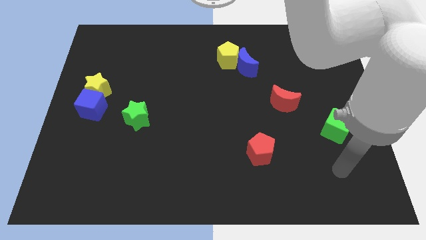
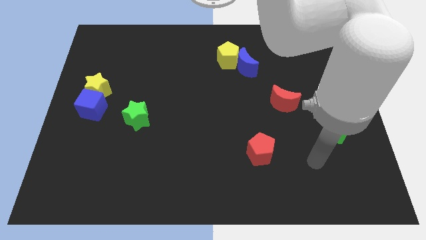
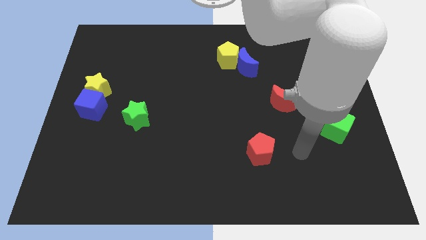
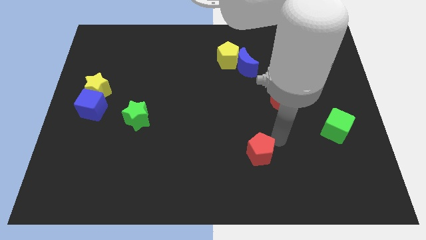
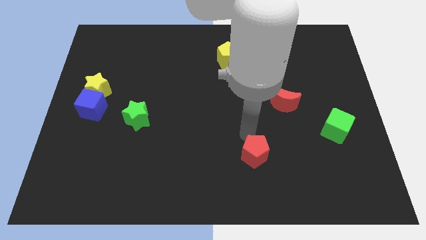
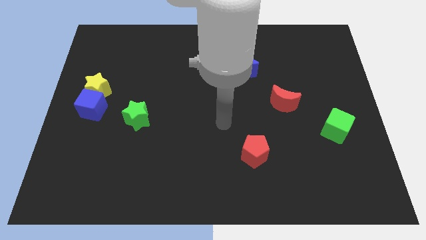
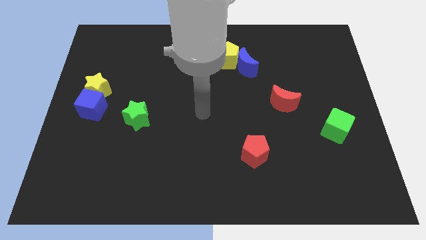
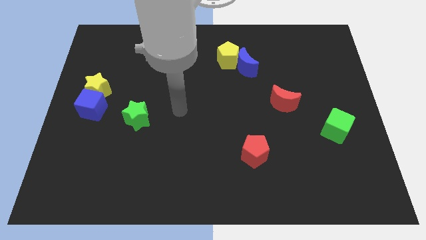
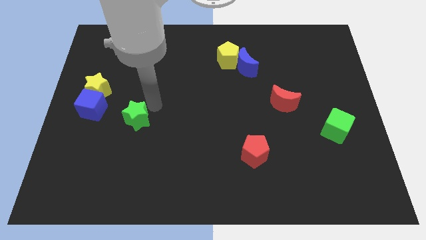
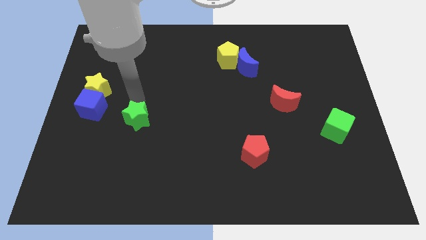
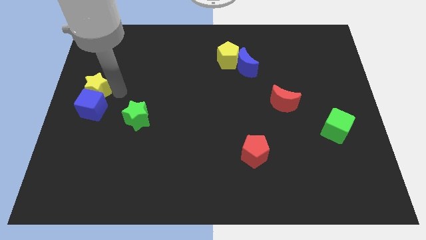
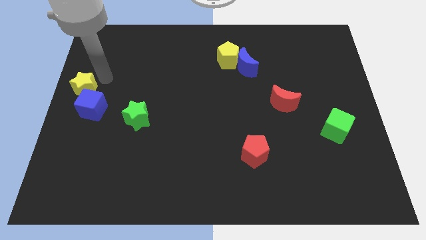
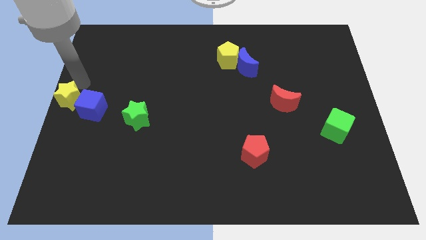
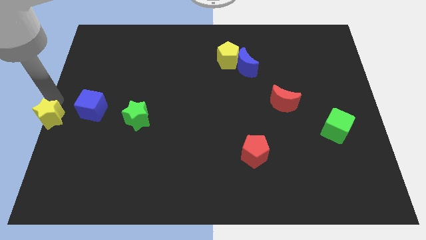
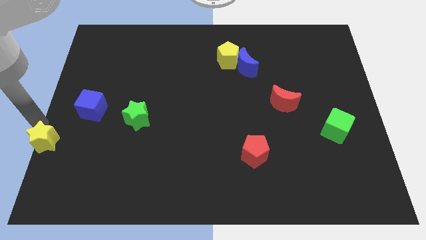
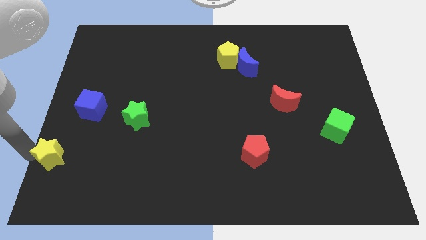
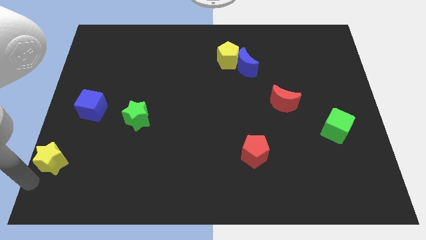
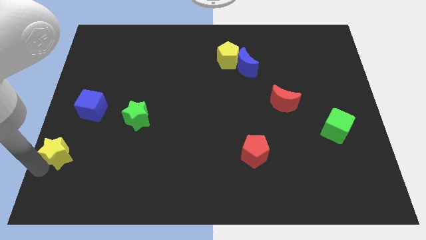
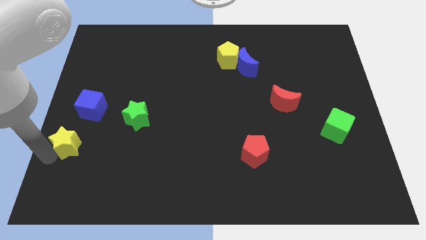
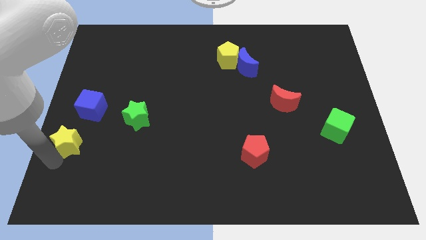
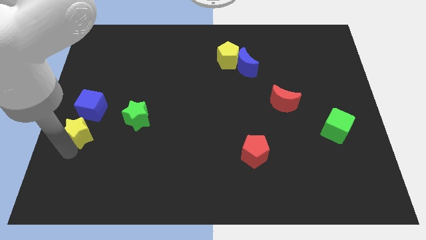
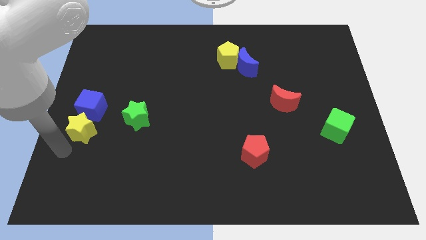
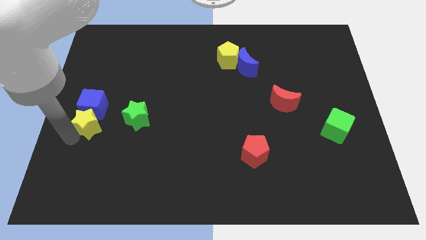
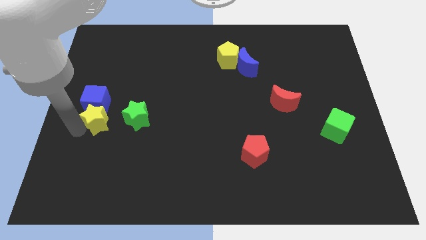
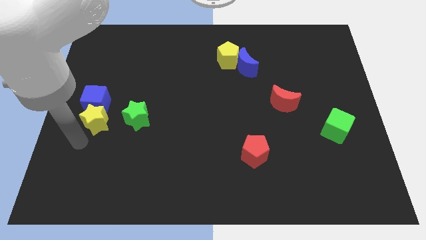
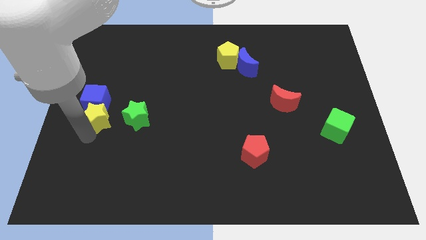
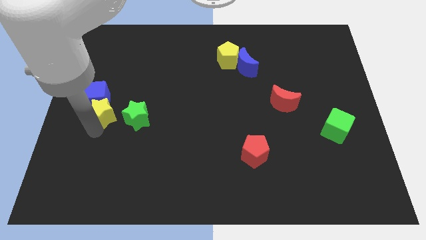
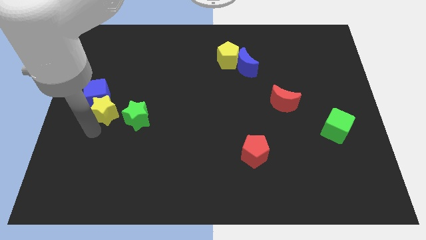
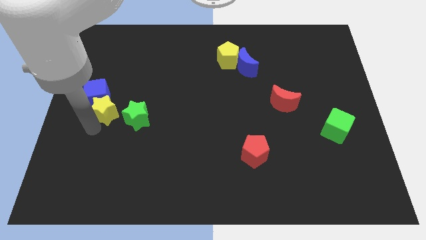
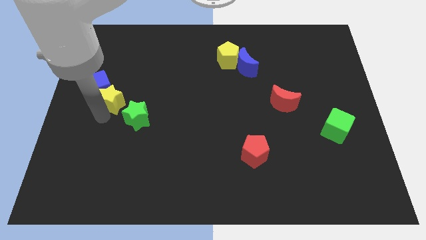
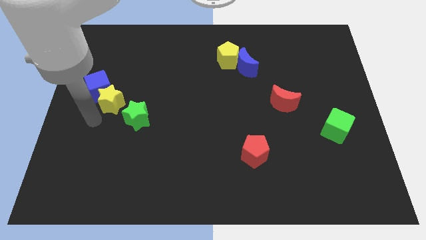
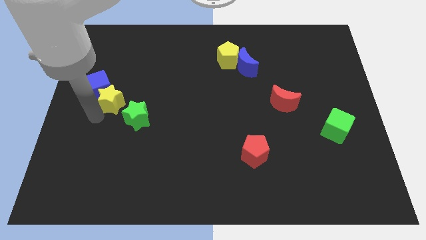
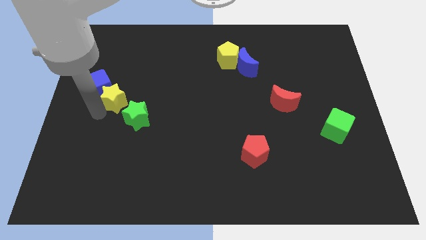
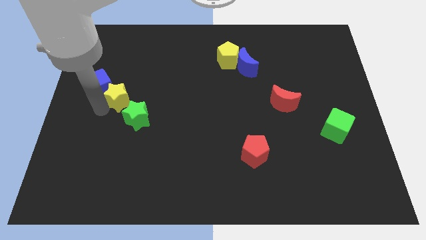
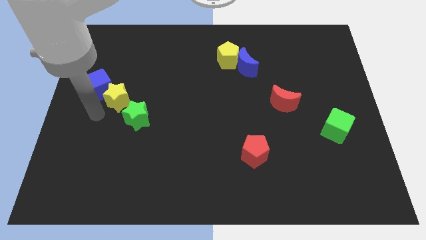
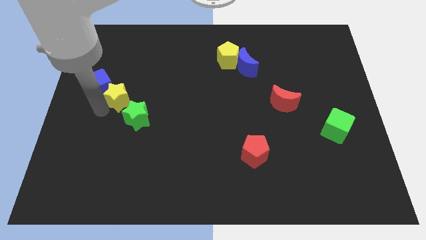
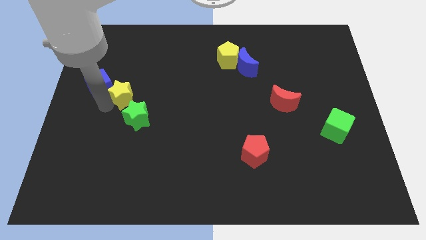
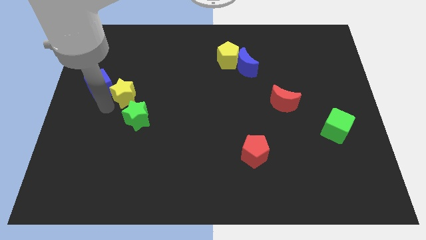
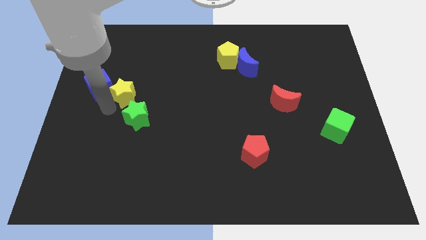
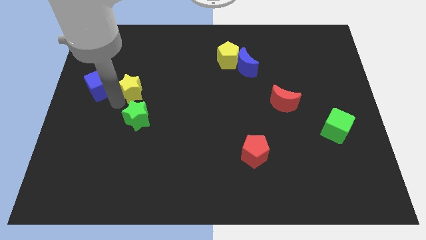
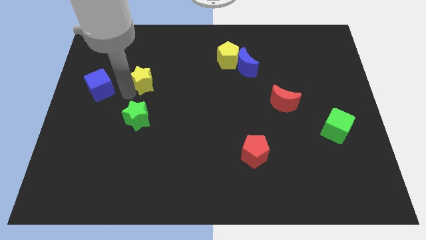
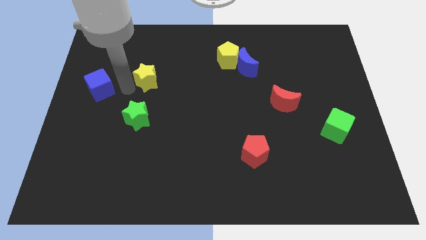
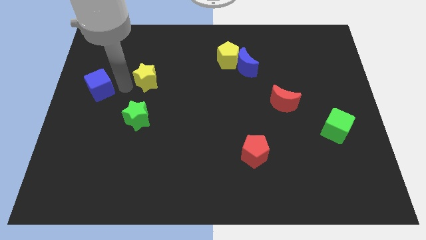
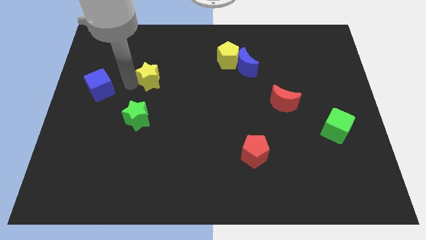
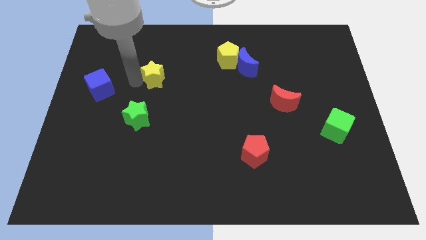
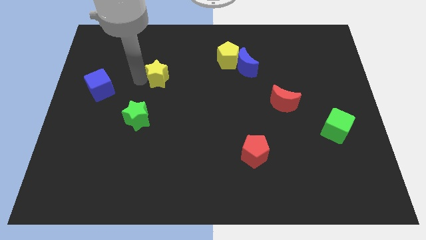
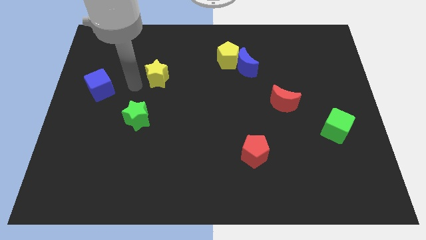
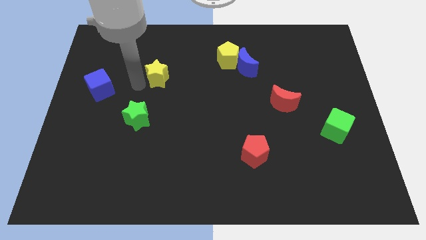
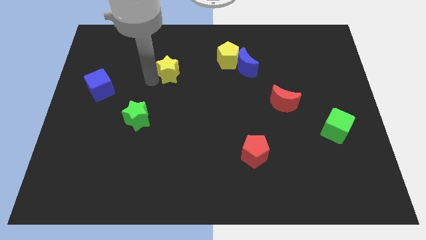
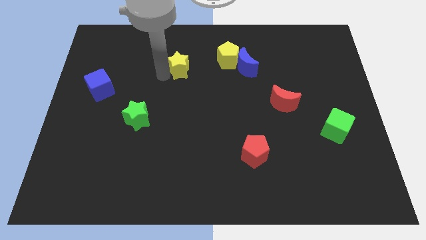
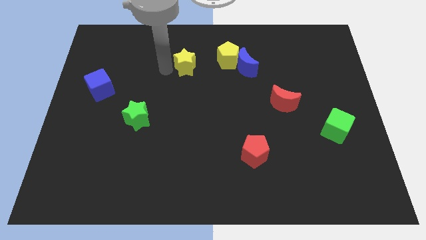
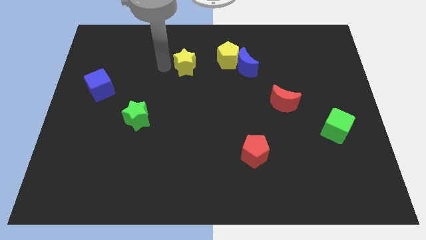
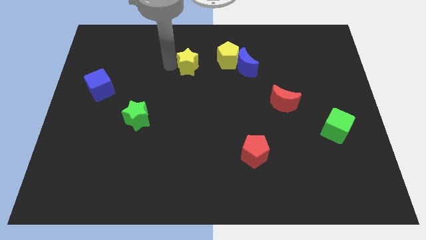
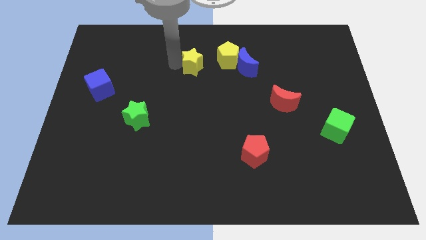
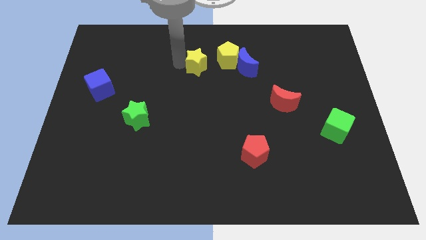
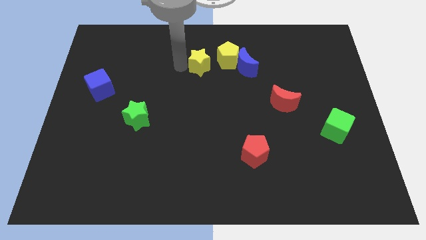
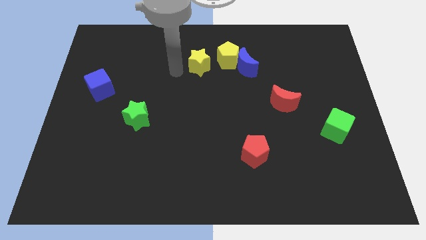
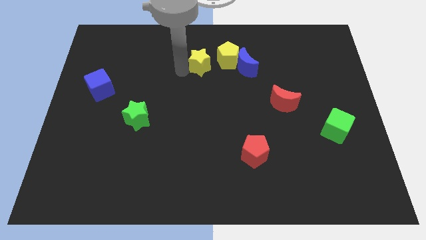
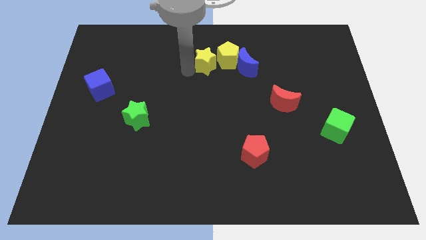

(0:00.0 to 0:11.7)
push the yellow star to the yellow pentagon

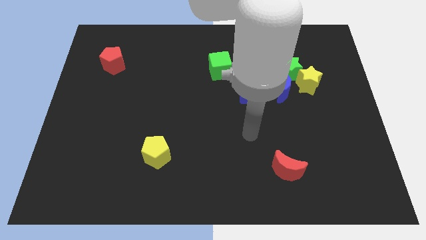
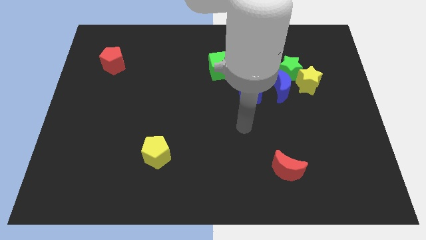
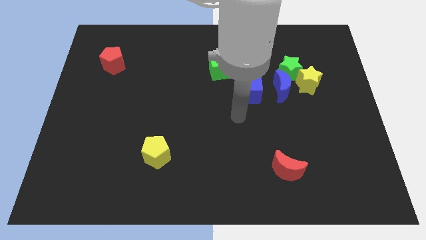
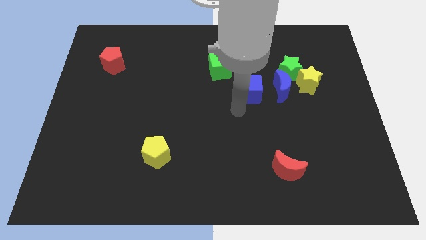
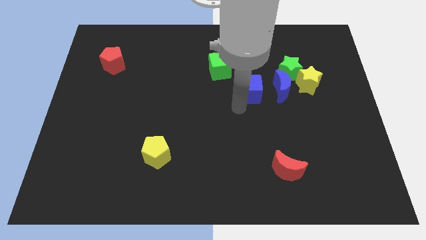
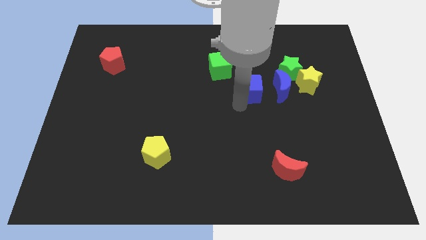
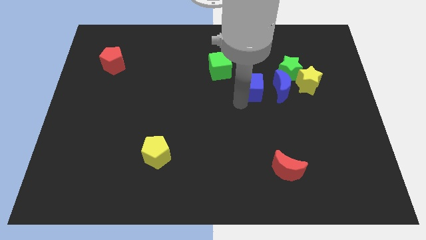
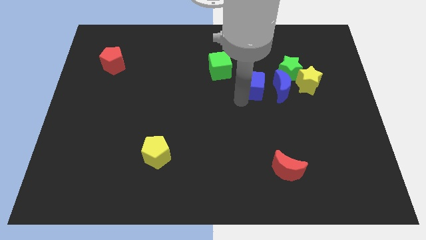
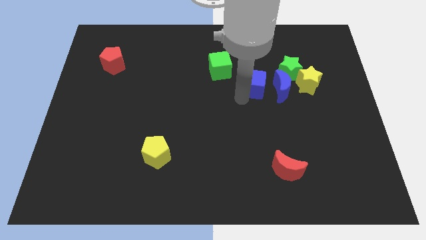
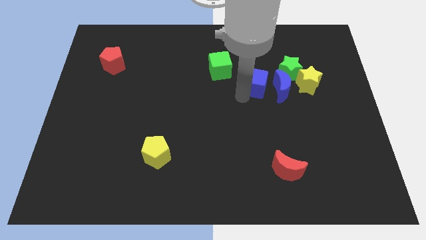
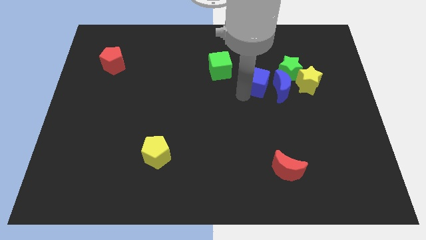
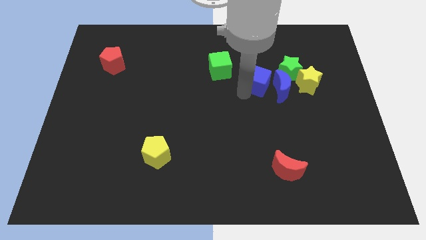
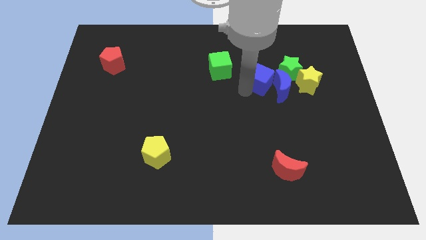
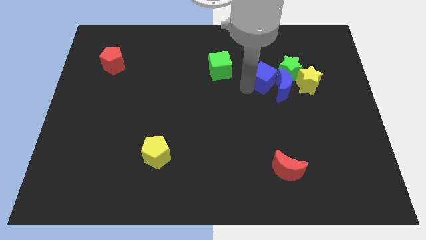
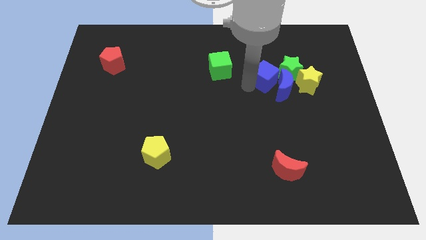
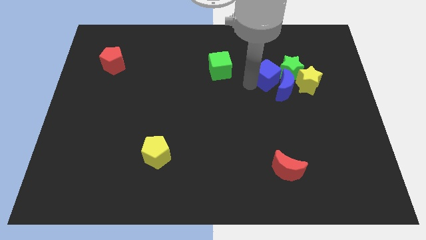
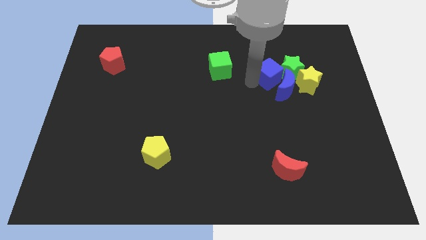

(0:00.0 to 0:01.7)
slide the blue cube towards the green star
